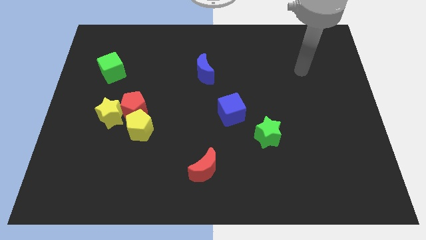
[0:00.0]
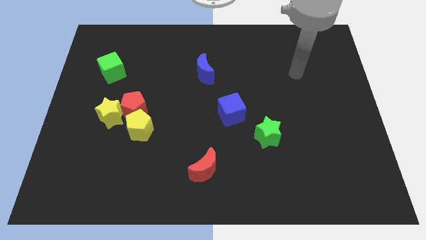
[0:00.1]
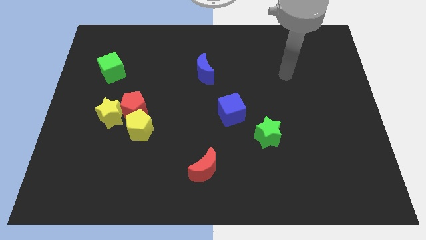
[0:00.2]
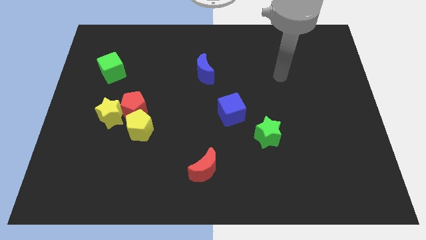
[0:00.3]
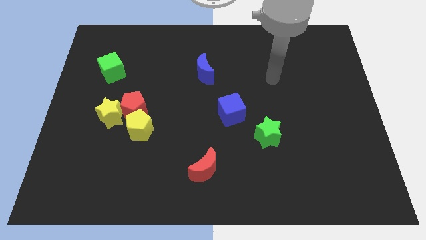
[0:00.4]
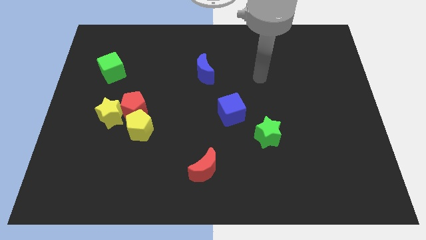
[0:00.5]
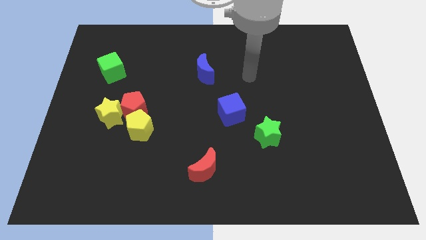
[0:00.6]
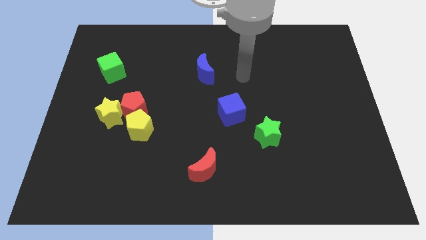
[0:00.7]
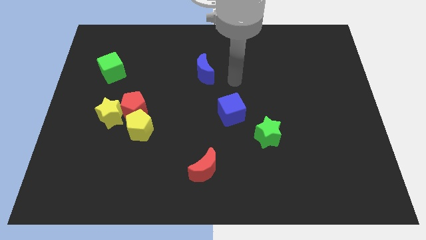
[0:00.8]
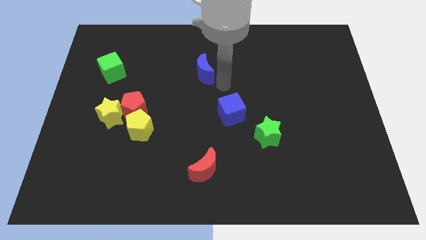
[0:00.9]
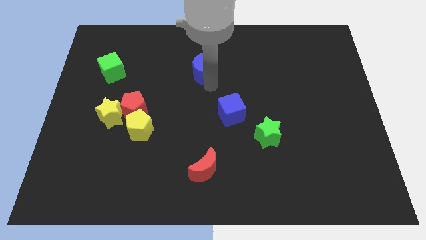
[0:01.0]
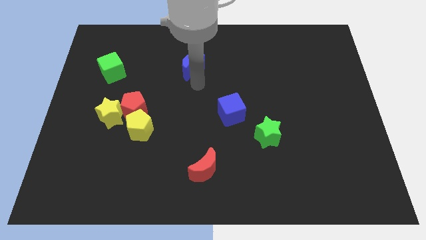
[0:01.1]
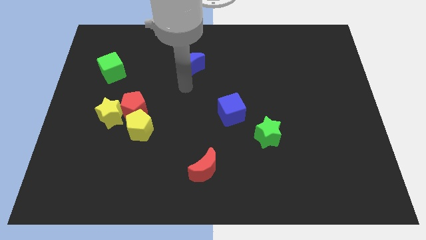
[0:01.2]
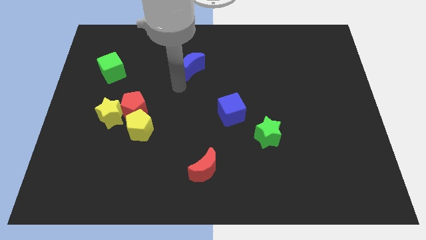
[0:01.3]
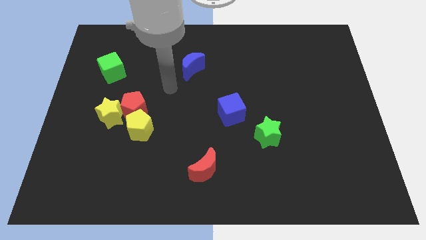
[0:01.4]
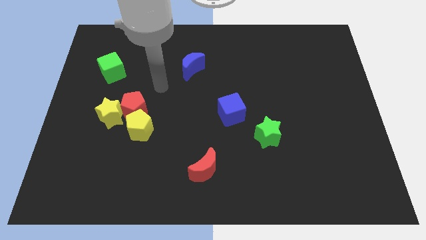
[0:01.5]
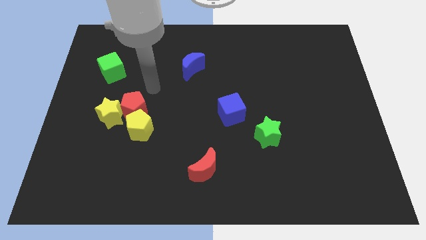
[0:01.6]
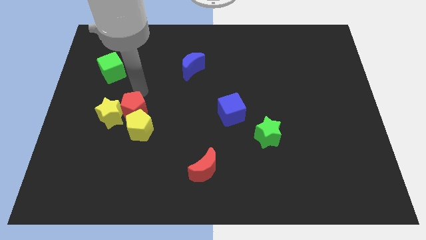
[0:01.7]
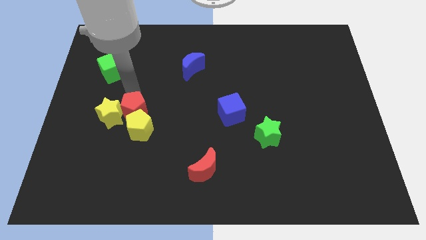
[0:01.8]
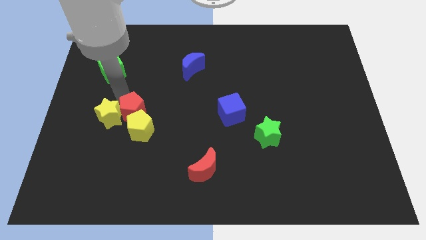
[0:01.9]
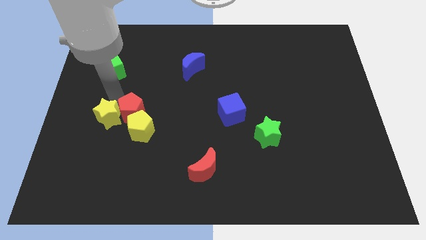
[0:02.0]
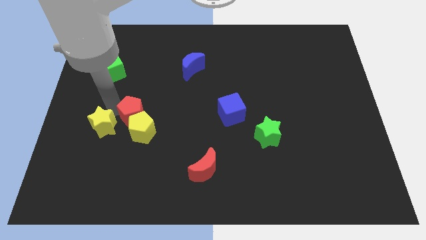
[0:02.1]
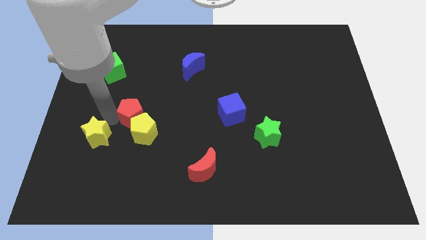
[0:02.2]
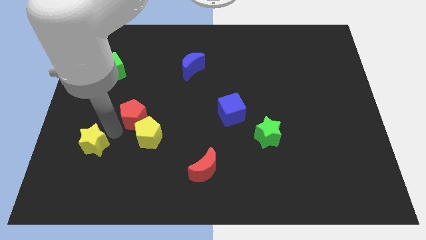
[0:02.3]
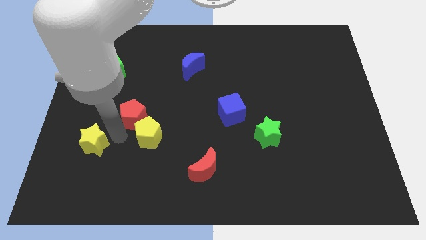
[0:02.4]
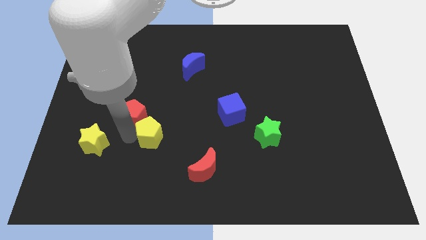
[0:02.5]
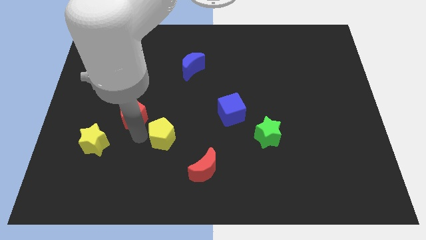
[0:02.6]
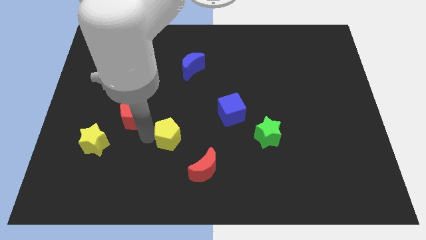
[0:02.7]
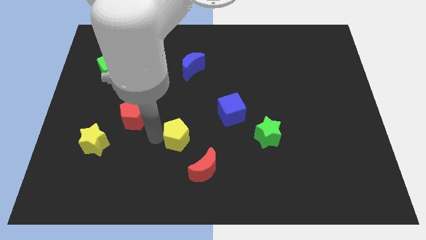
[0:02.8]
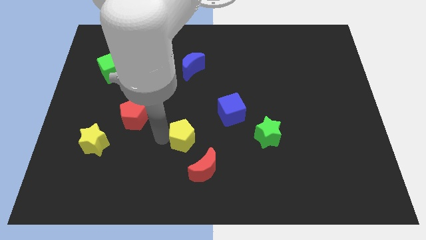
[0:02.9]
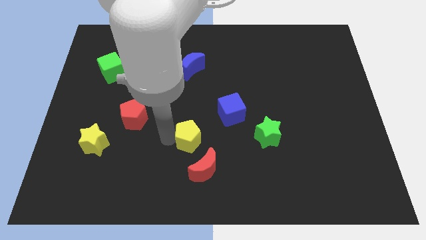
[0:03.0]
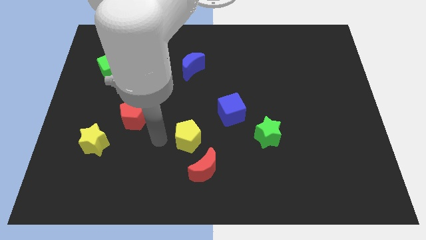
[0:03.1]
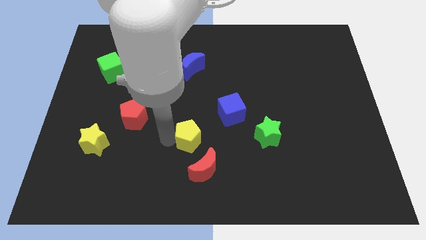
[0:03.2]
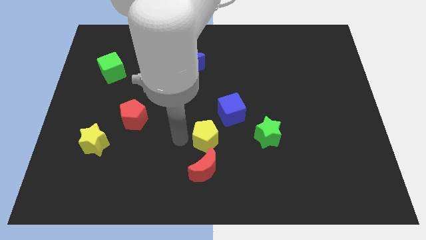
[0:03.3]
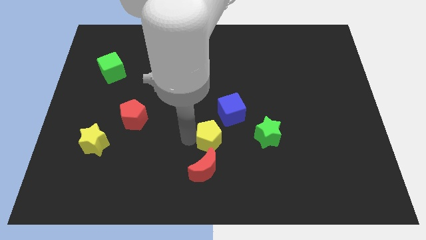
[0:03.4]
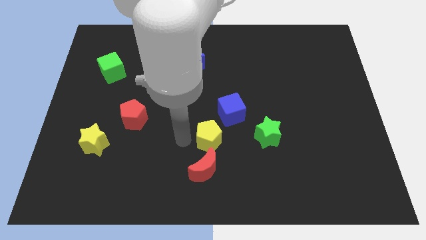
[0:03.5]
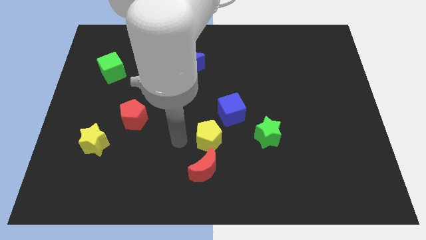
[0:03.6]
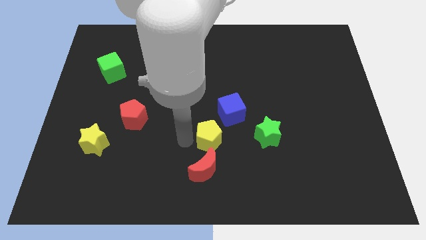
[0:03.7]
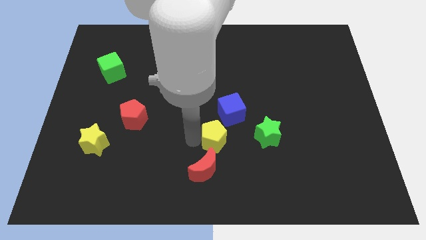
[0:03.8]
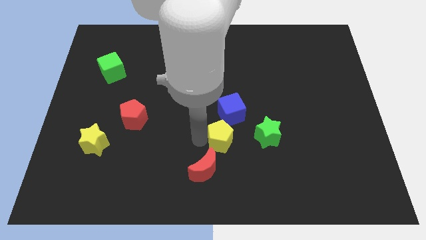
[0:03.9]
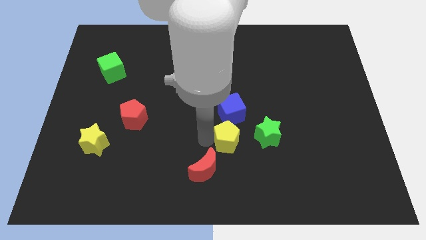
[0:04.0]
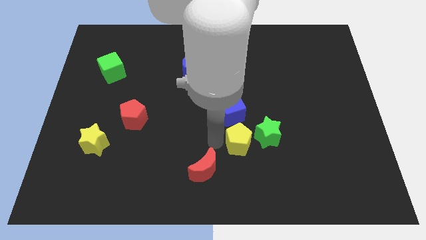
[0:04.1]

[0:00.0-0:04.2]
move the yellow pentagon right

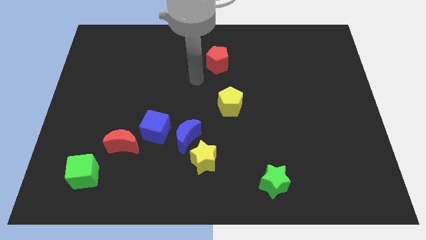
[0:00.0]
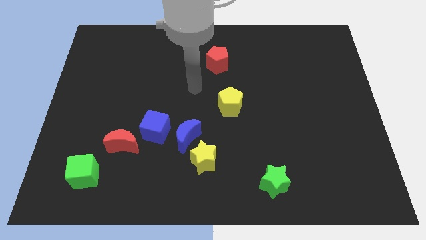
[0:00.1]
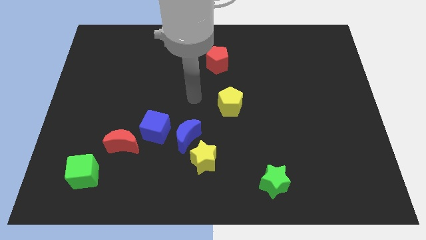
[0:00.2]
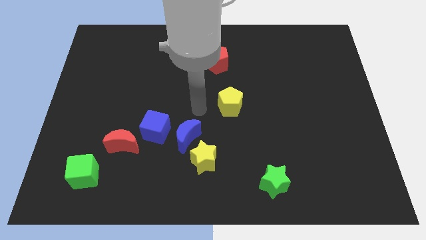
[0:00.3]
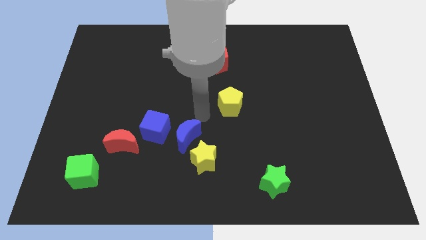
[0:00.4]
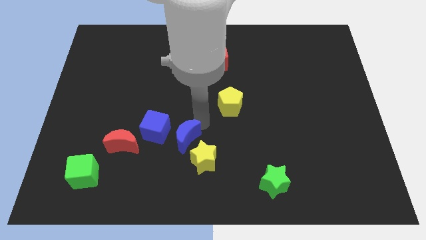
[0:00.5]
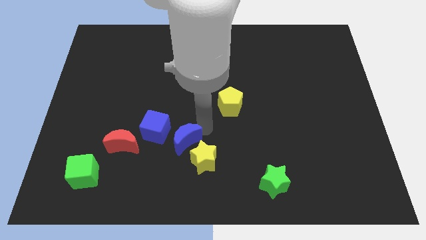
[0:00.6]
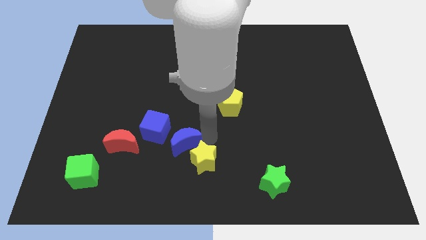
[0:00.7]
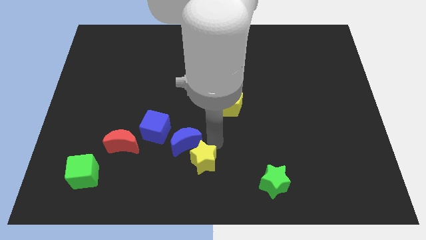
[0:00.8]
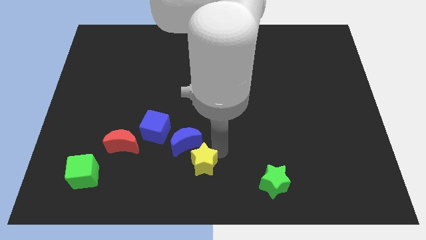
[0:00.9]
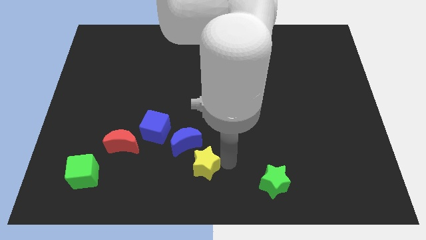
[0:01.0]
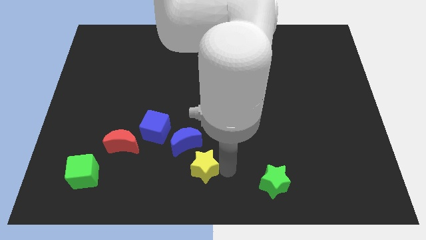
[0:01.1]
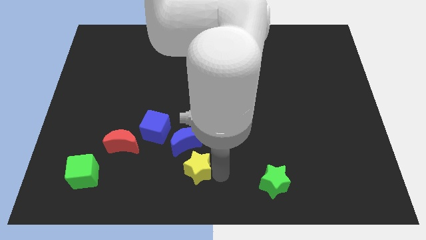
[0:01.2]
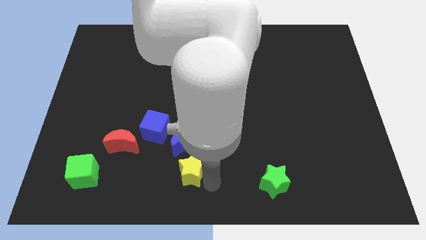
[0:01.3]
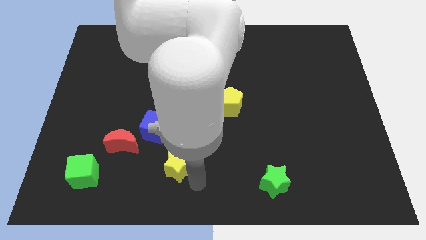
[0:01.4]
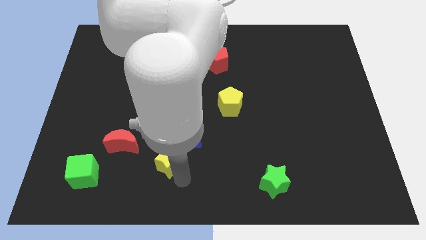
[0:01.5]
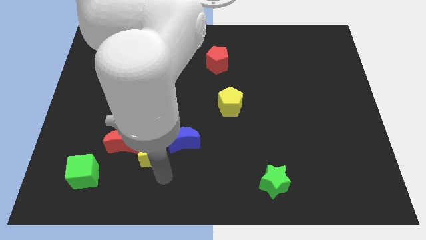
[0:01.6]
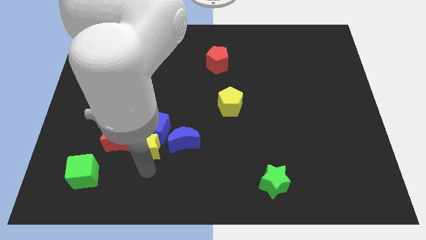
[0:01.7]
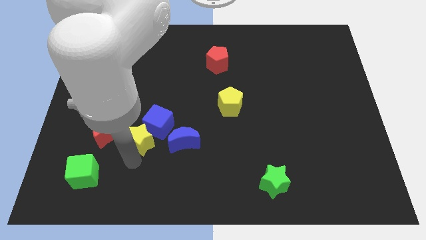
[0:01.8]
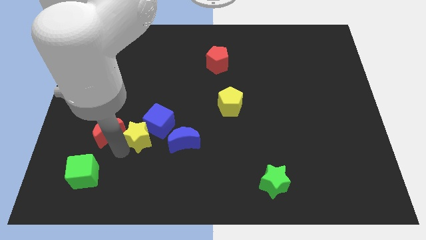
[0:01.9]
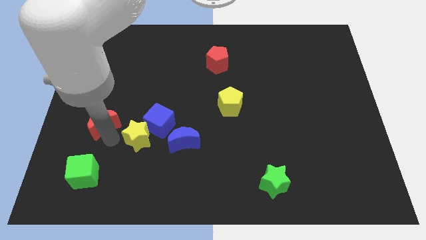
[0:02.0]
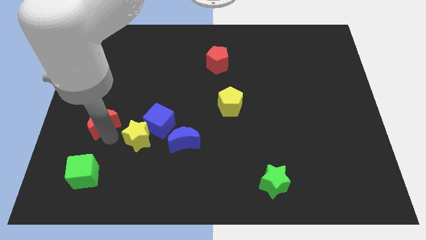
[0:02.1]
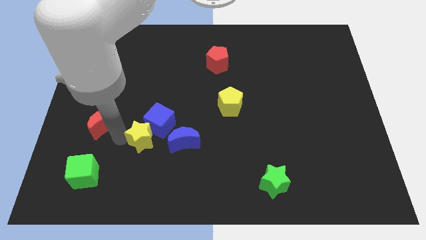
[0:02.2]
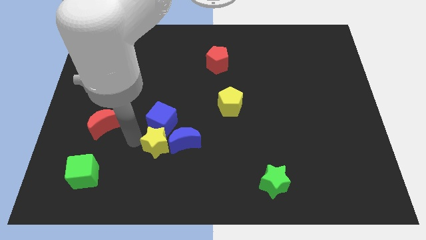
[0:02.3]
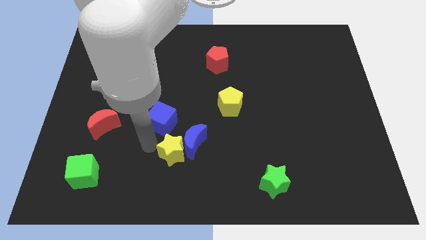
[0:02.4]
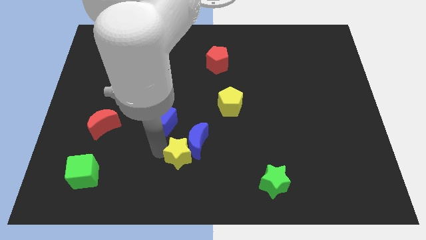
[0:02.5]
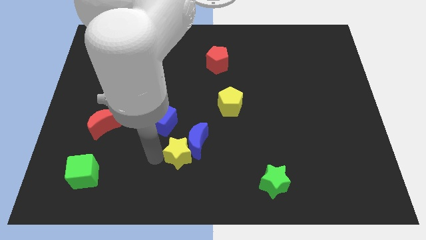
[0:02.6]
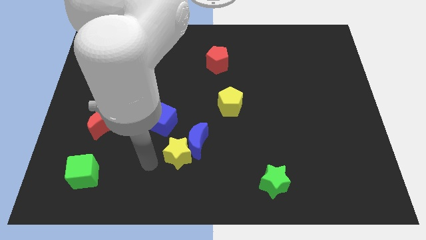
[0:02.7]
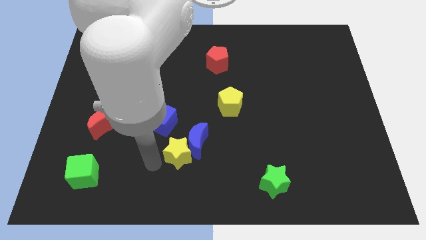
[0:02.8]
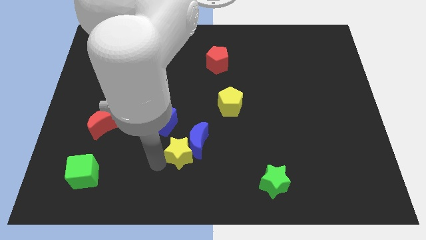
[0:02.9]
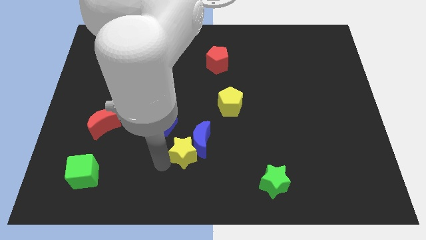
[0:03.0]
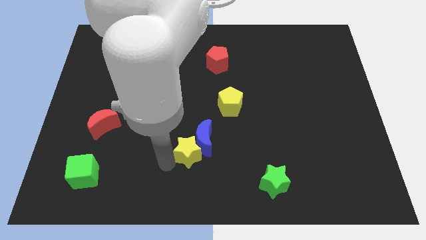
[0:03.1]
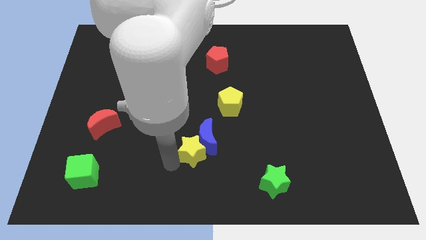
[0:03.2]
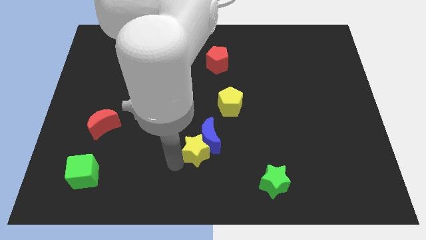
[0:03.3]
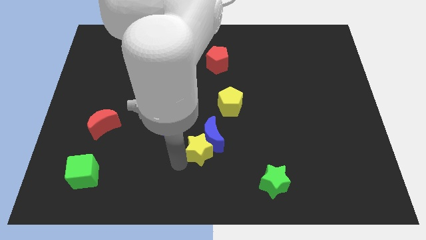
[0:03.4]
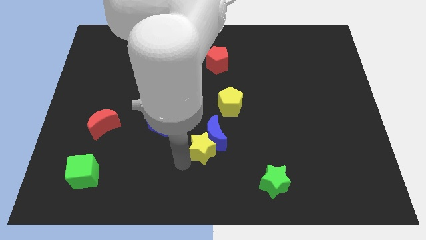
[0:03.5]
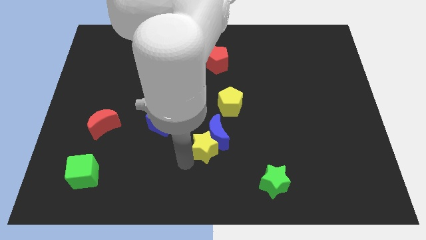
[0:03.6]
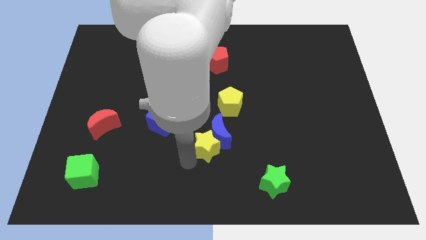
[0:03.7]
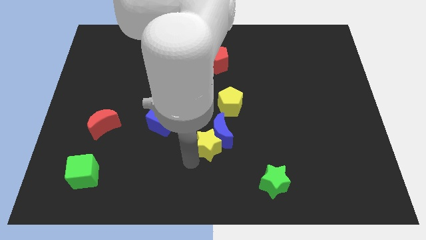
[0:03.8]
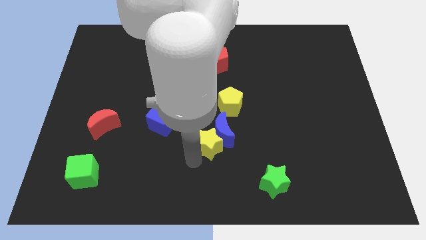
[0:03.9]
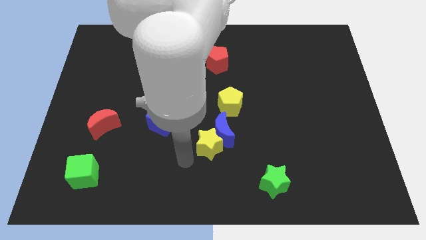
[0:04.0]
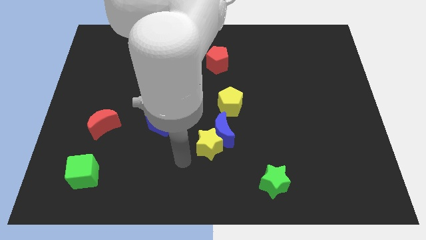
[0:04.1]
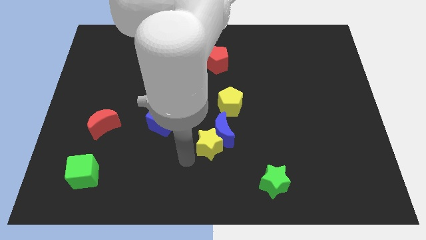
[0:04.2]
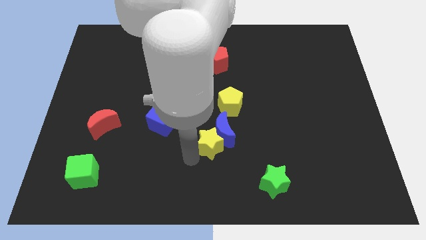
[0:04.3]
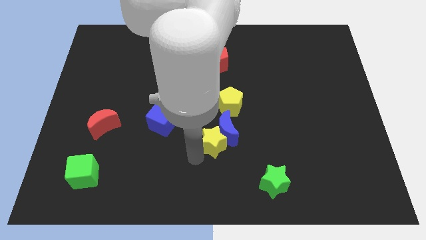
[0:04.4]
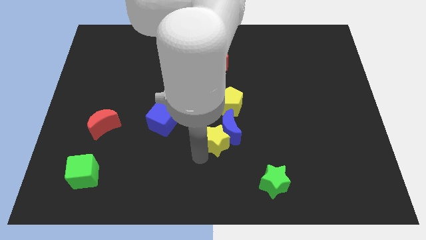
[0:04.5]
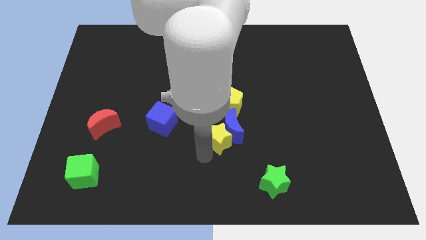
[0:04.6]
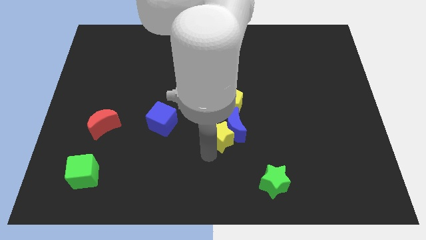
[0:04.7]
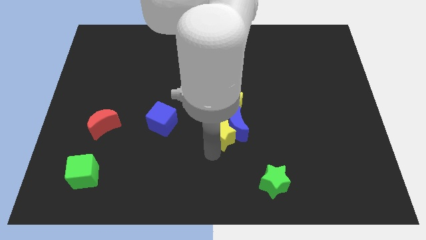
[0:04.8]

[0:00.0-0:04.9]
slightly slide the yellow star upwards and right diagonally
